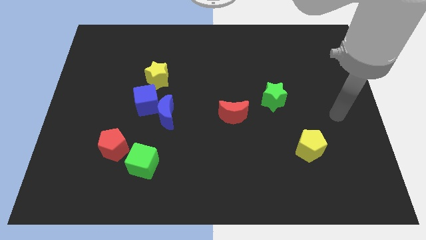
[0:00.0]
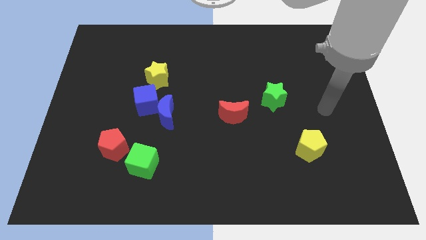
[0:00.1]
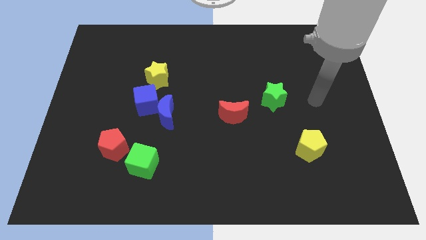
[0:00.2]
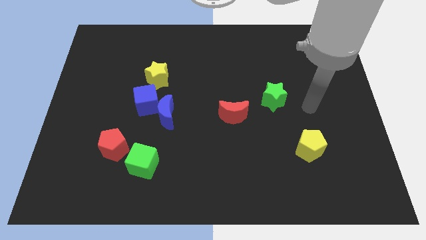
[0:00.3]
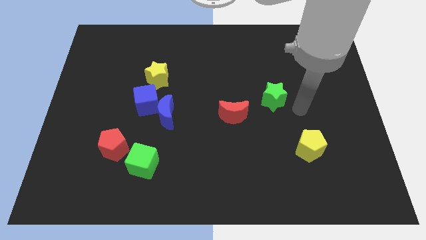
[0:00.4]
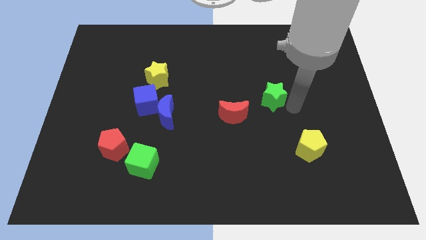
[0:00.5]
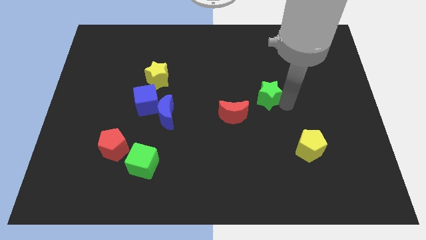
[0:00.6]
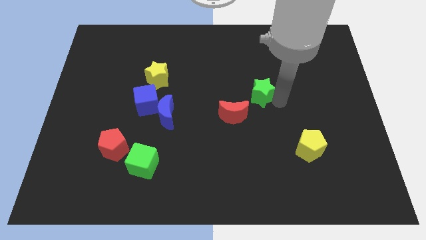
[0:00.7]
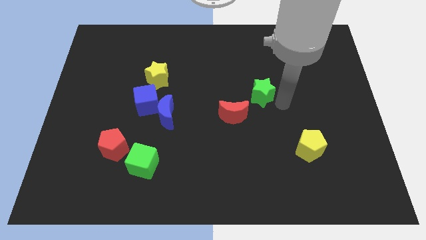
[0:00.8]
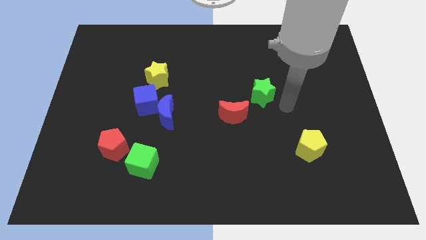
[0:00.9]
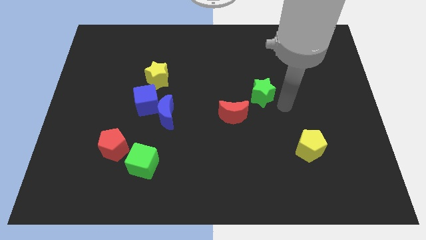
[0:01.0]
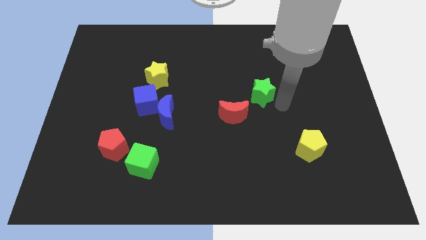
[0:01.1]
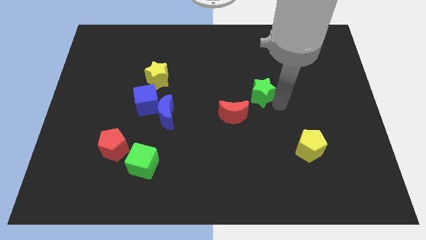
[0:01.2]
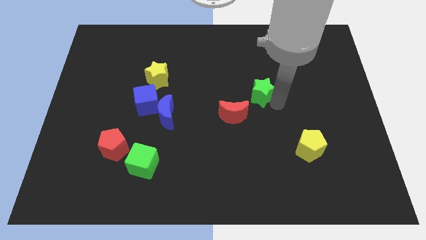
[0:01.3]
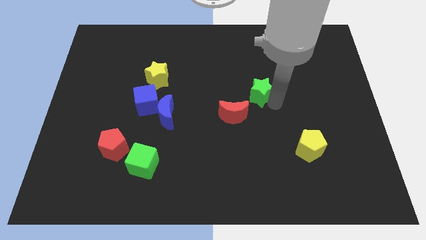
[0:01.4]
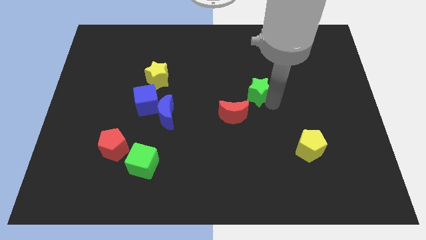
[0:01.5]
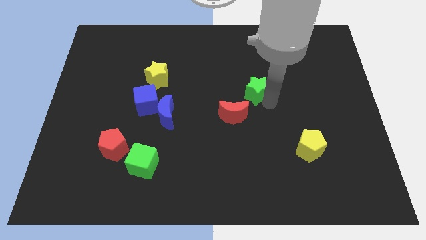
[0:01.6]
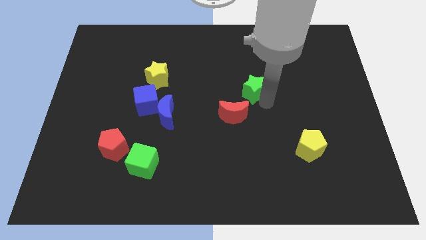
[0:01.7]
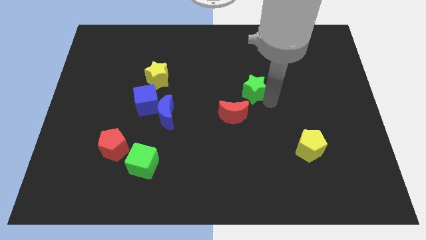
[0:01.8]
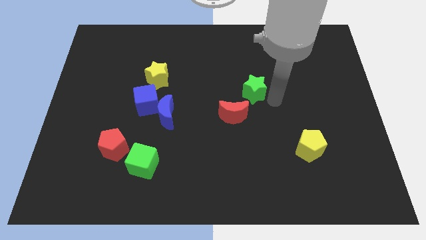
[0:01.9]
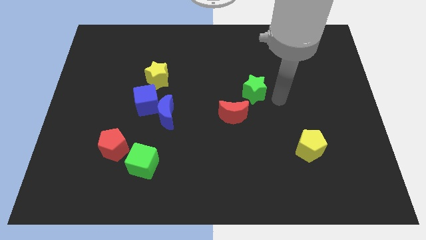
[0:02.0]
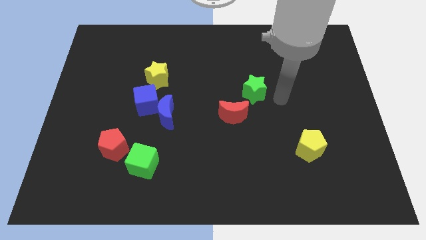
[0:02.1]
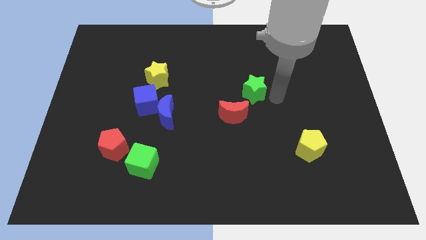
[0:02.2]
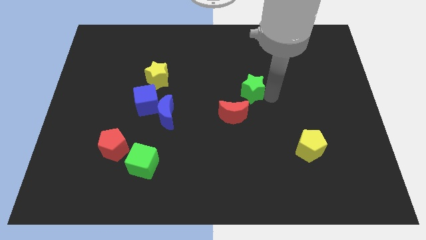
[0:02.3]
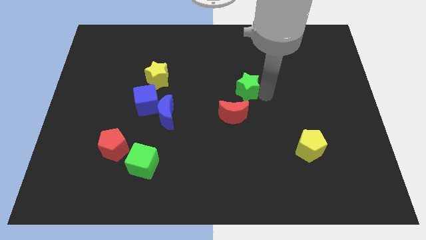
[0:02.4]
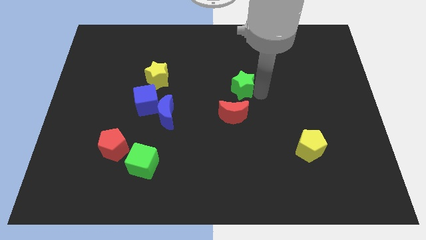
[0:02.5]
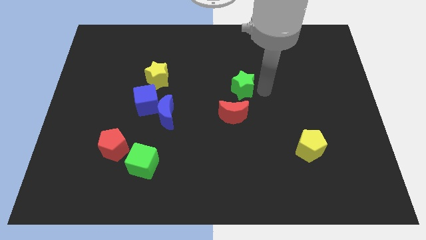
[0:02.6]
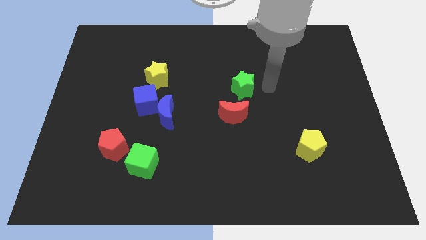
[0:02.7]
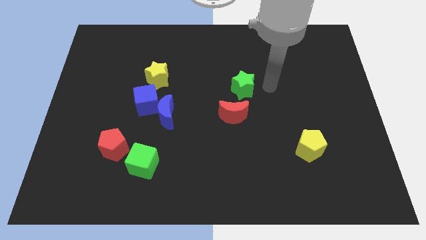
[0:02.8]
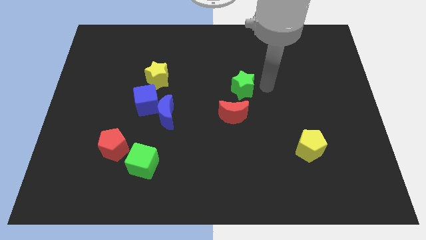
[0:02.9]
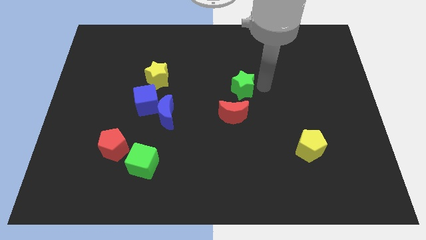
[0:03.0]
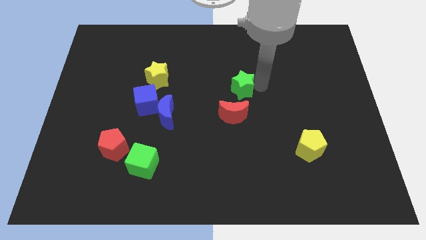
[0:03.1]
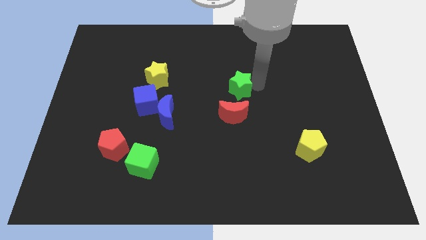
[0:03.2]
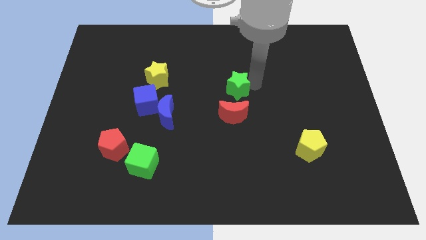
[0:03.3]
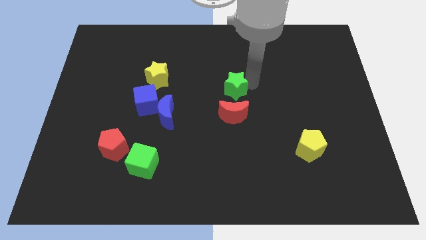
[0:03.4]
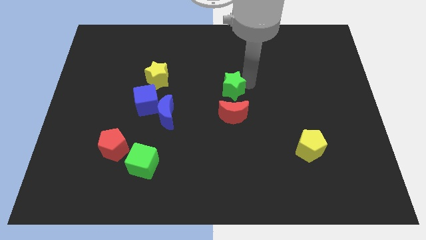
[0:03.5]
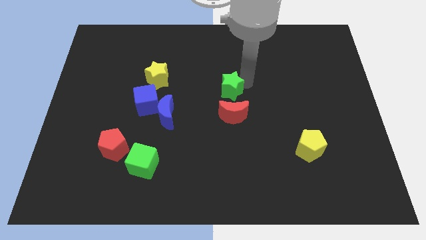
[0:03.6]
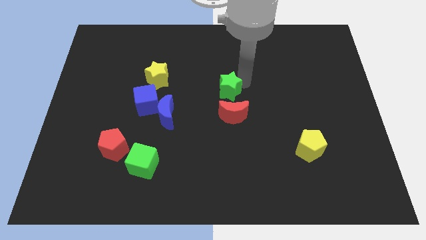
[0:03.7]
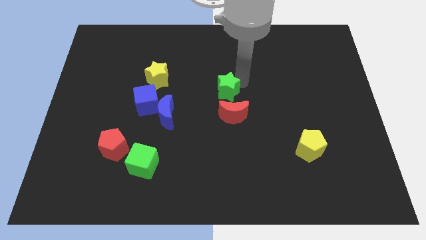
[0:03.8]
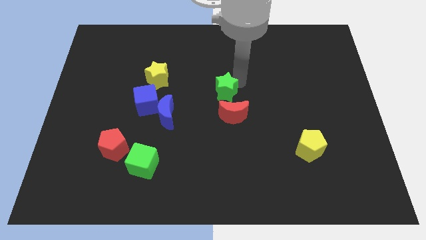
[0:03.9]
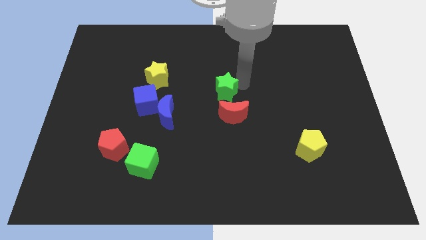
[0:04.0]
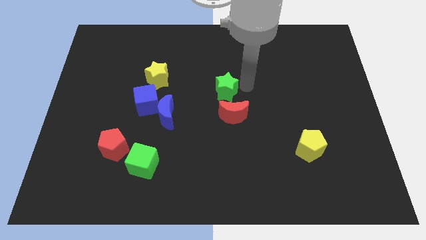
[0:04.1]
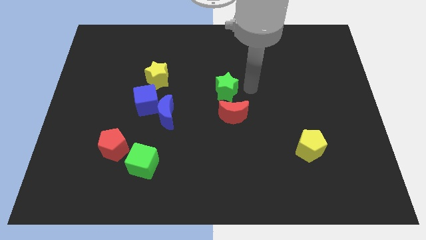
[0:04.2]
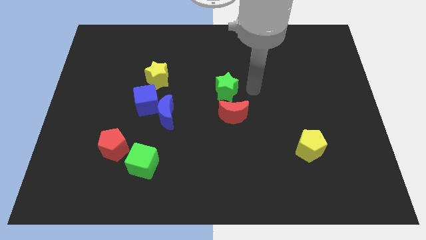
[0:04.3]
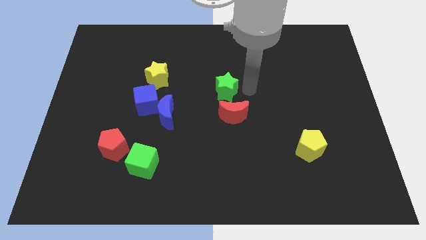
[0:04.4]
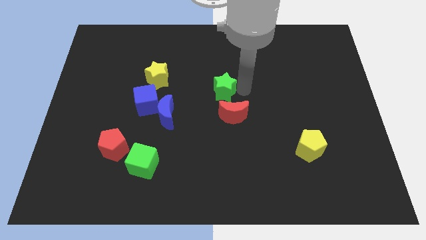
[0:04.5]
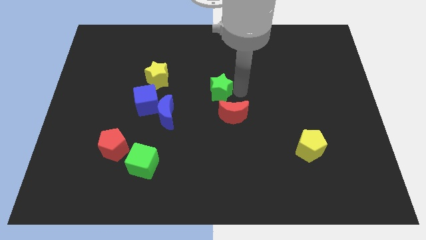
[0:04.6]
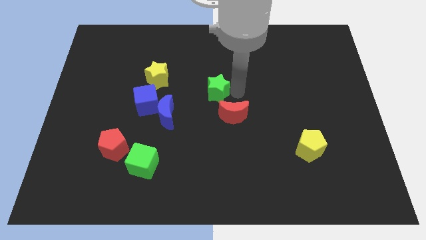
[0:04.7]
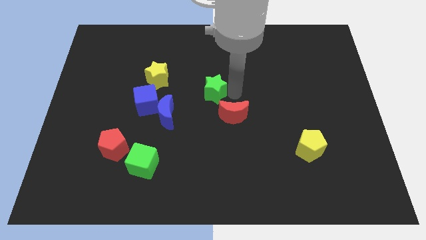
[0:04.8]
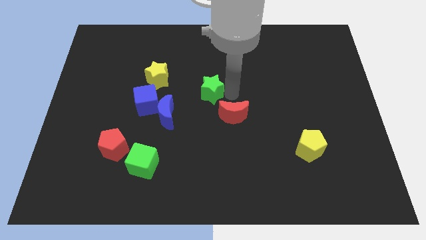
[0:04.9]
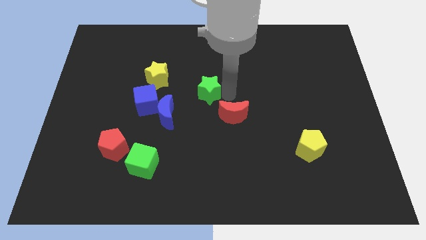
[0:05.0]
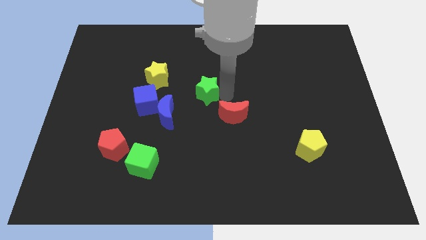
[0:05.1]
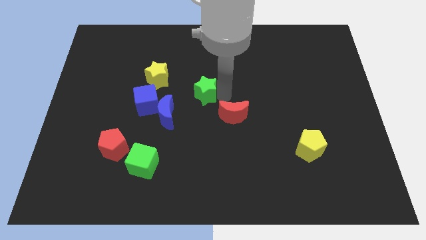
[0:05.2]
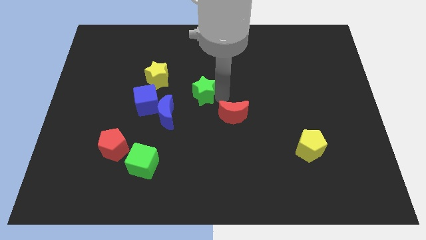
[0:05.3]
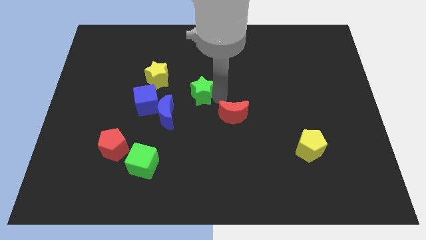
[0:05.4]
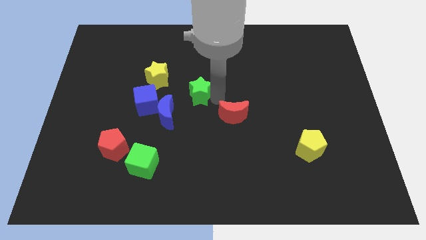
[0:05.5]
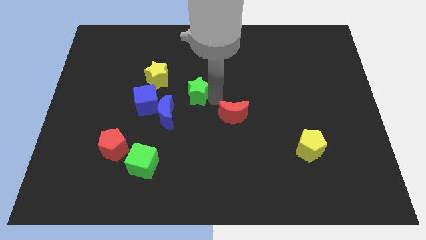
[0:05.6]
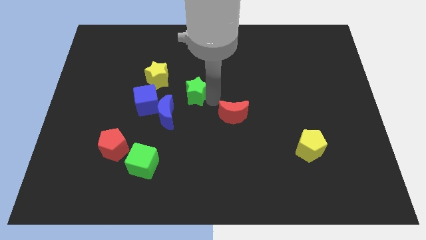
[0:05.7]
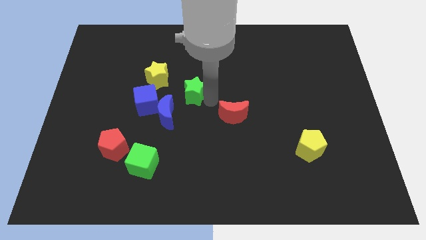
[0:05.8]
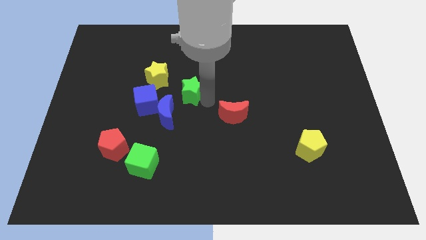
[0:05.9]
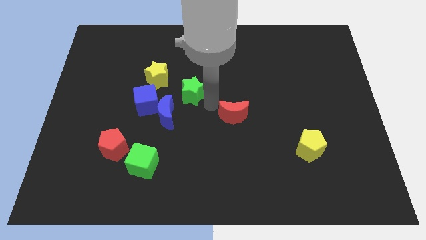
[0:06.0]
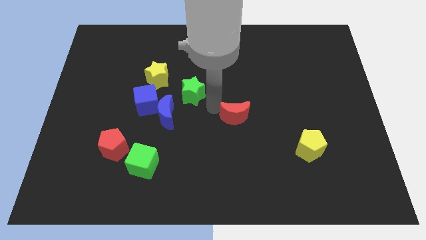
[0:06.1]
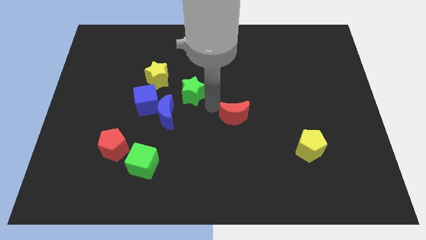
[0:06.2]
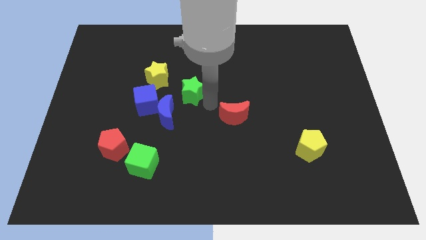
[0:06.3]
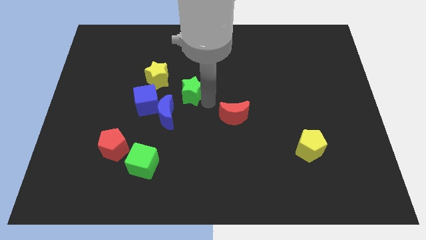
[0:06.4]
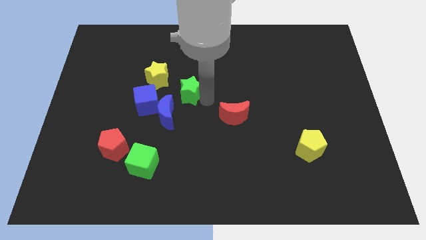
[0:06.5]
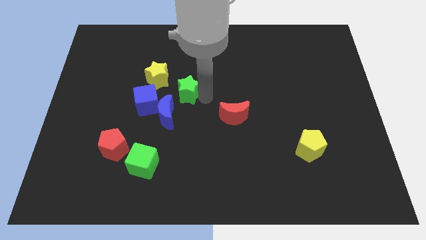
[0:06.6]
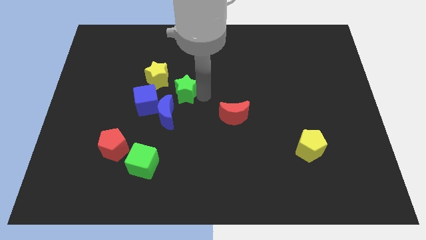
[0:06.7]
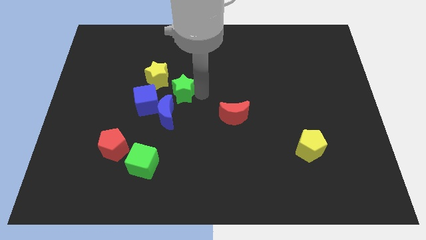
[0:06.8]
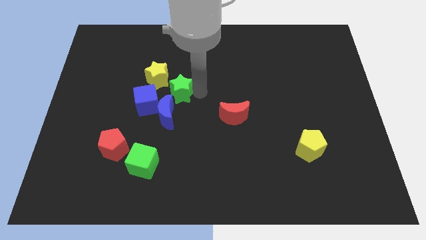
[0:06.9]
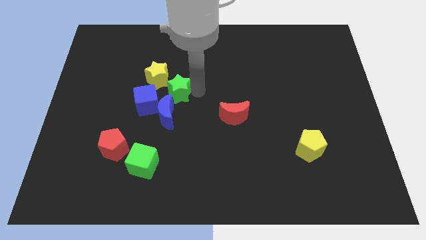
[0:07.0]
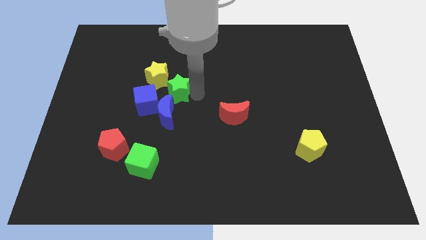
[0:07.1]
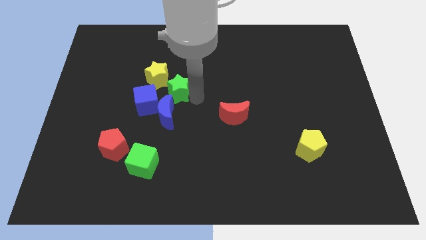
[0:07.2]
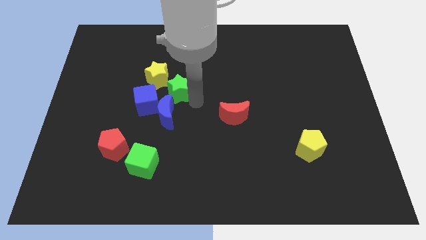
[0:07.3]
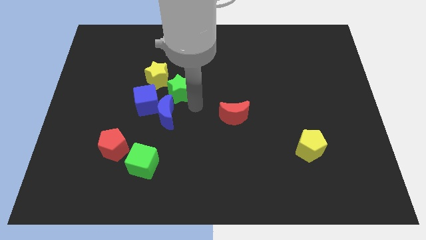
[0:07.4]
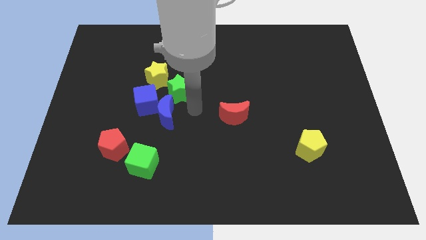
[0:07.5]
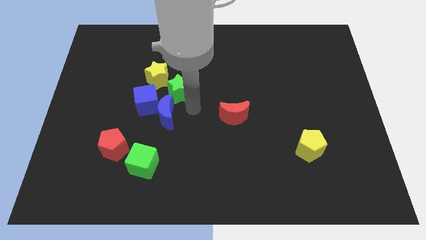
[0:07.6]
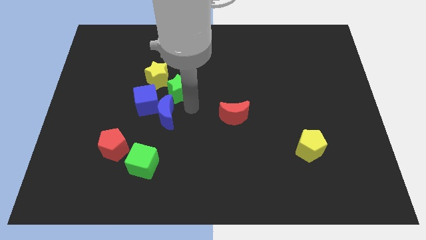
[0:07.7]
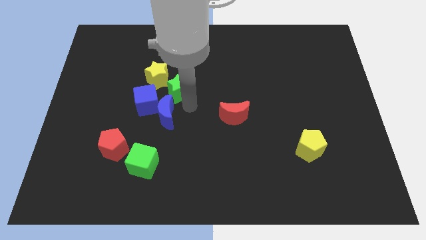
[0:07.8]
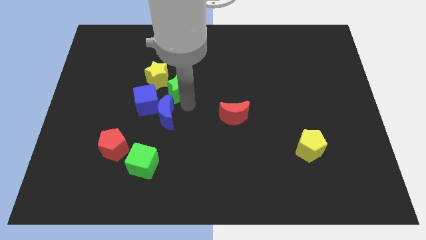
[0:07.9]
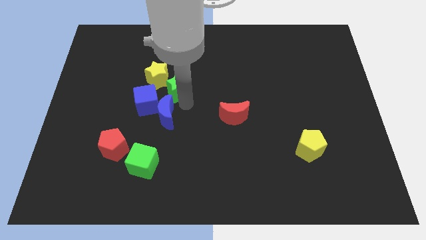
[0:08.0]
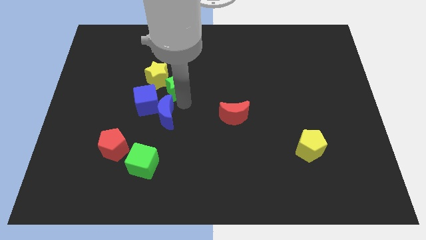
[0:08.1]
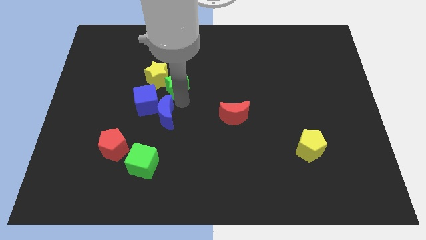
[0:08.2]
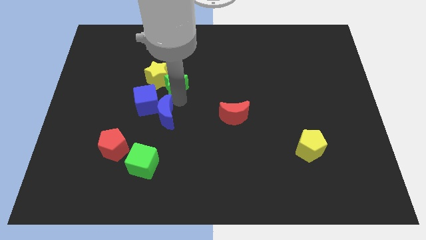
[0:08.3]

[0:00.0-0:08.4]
put the green star to the yellow star
